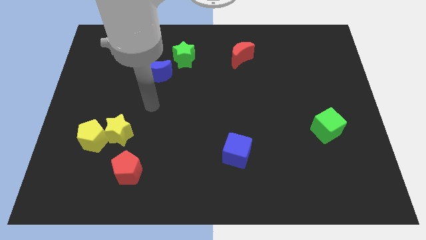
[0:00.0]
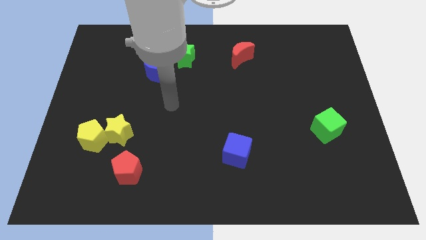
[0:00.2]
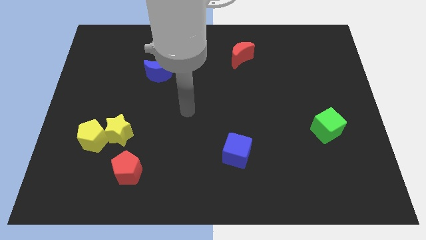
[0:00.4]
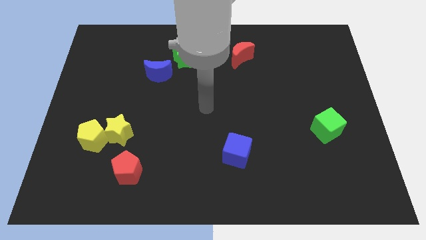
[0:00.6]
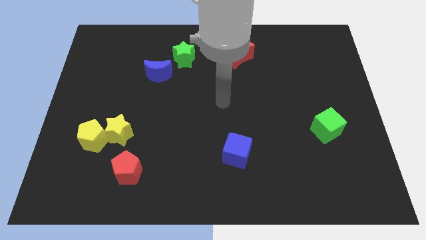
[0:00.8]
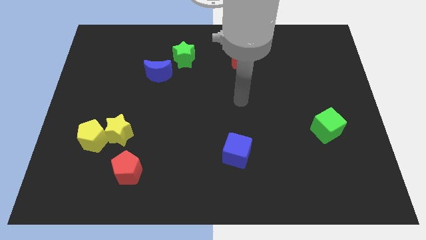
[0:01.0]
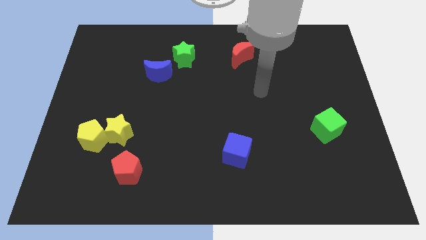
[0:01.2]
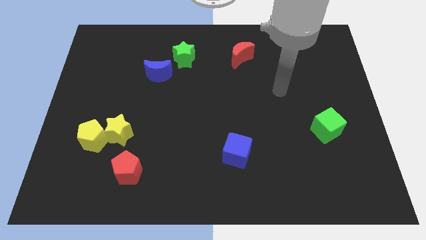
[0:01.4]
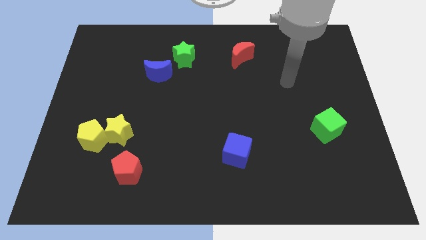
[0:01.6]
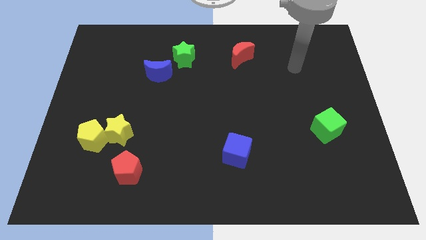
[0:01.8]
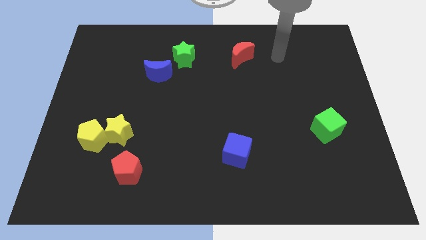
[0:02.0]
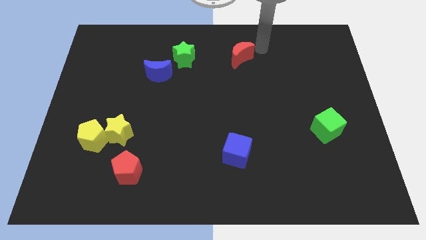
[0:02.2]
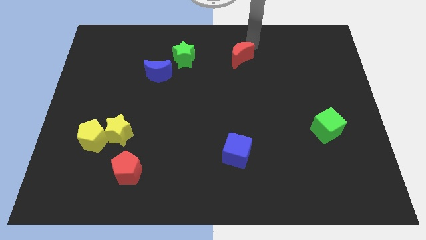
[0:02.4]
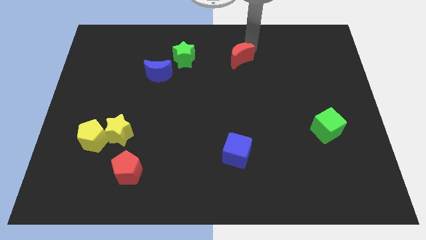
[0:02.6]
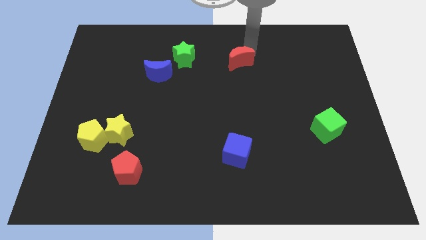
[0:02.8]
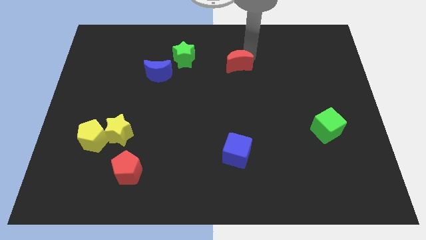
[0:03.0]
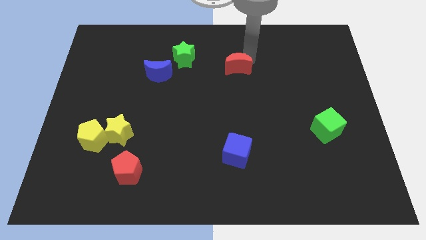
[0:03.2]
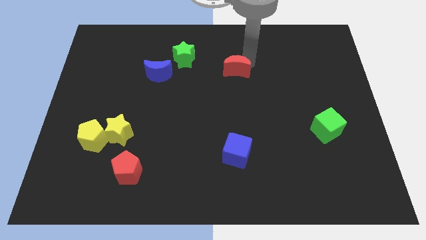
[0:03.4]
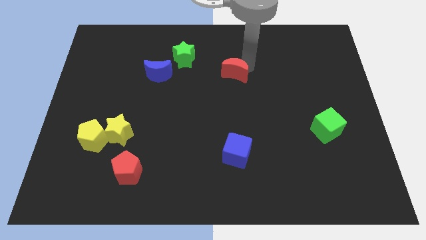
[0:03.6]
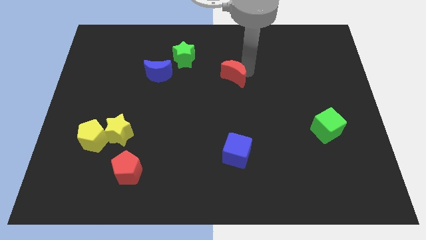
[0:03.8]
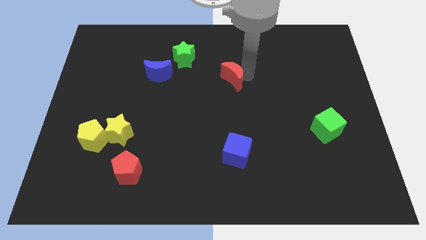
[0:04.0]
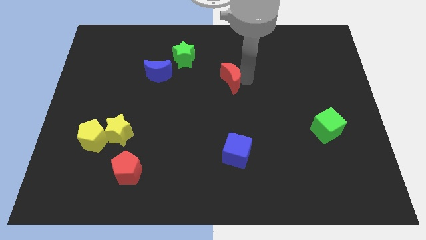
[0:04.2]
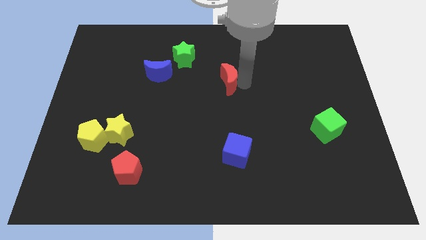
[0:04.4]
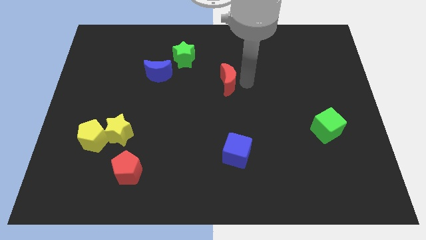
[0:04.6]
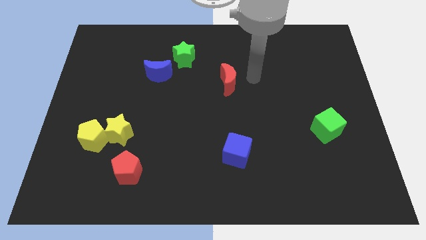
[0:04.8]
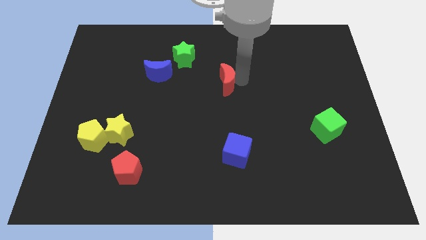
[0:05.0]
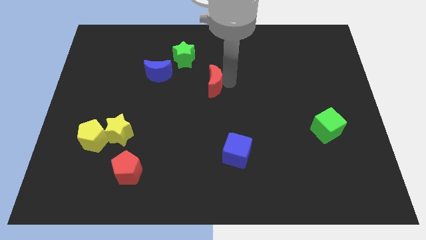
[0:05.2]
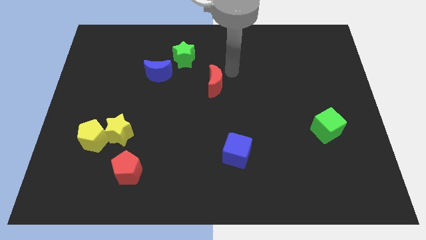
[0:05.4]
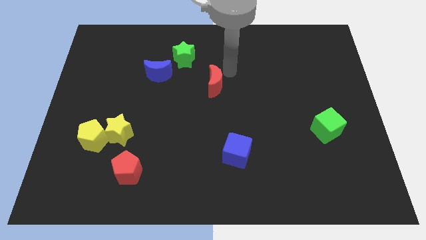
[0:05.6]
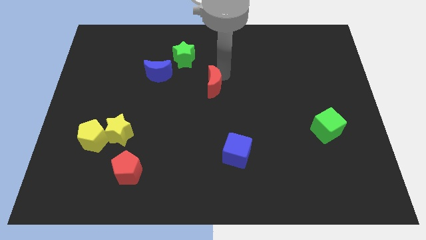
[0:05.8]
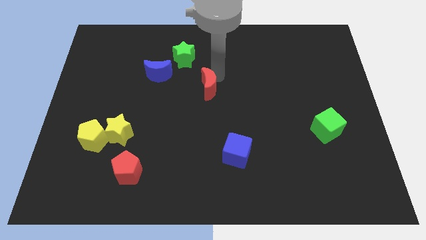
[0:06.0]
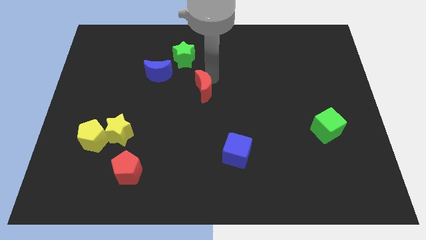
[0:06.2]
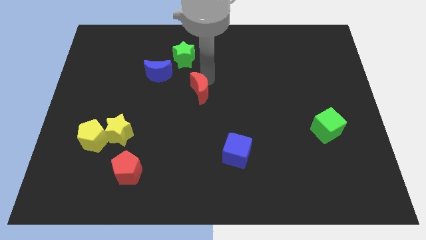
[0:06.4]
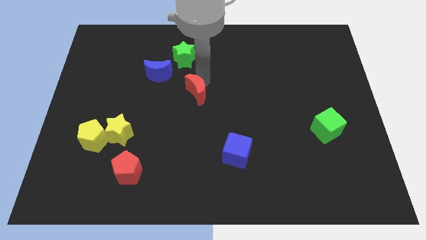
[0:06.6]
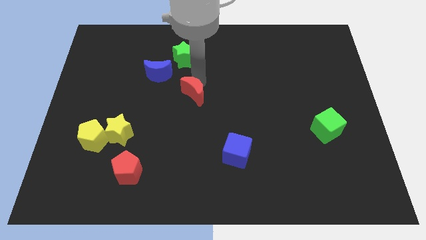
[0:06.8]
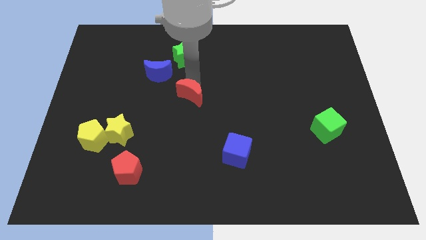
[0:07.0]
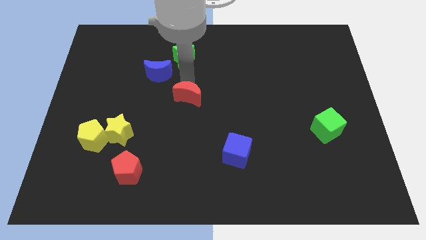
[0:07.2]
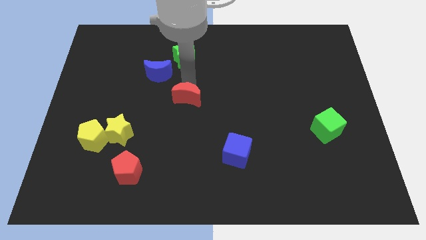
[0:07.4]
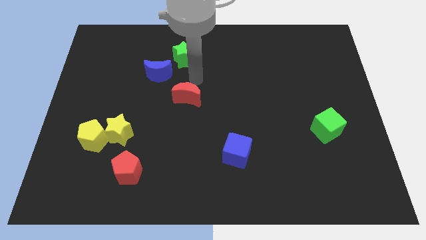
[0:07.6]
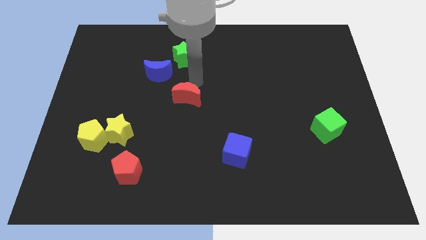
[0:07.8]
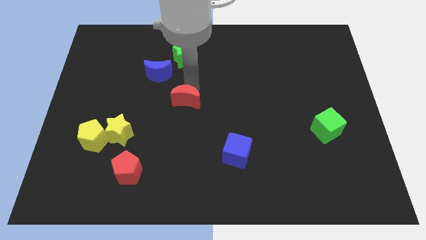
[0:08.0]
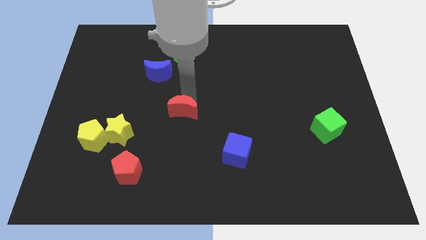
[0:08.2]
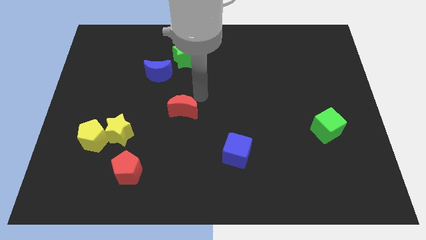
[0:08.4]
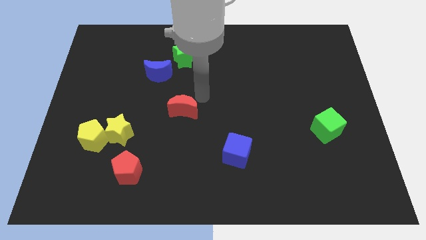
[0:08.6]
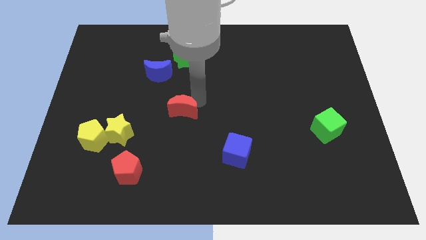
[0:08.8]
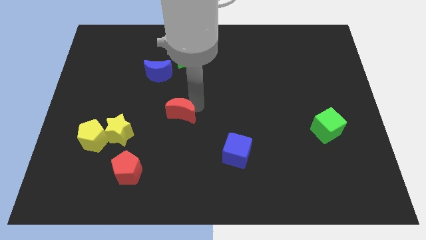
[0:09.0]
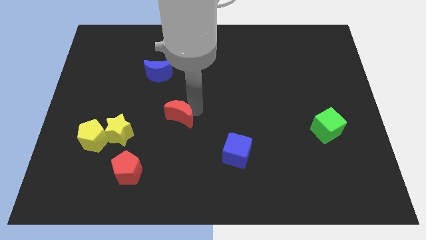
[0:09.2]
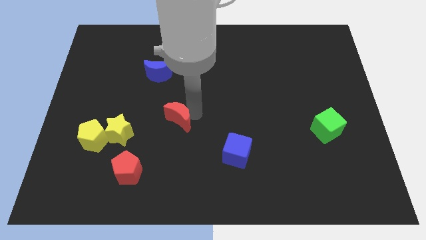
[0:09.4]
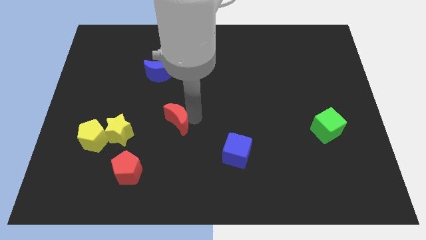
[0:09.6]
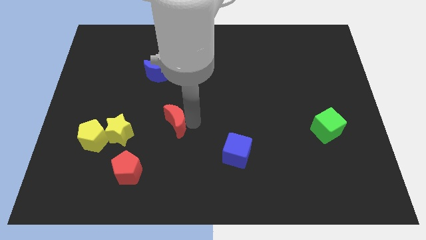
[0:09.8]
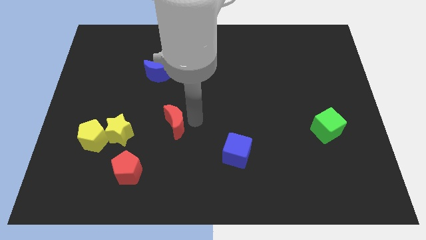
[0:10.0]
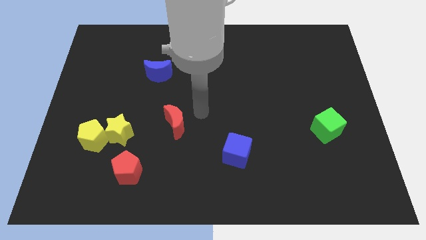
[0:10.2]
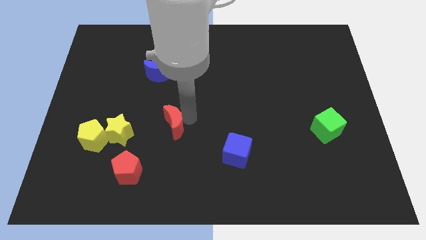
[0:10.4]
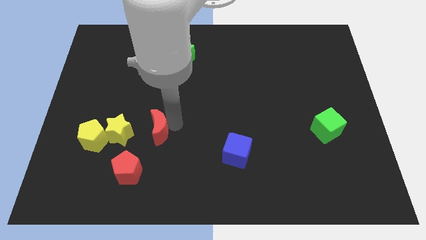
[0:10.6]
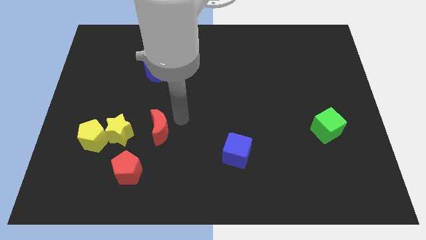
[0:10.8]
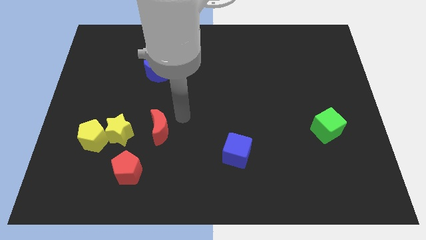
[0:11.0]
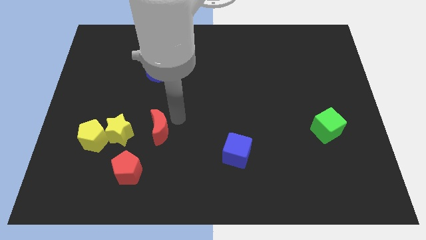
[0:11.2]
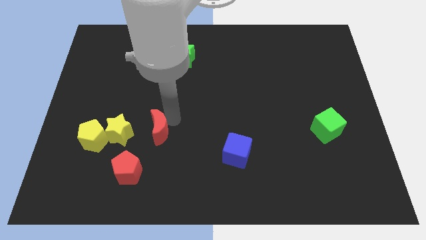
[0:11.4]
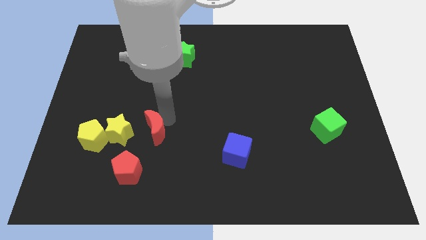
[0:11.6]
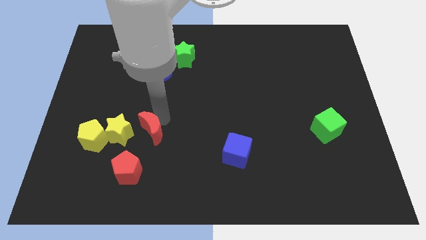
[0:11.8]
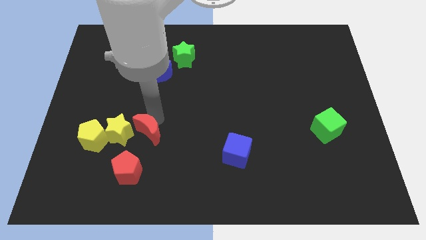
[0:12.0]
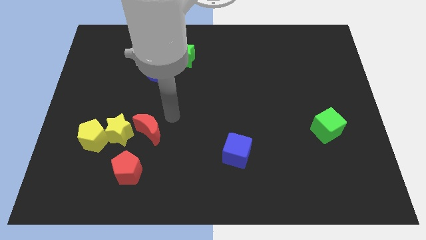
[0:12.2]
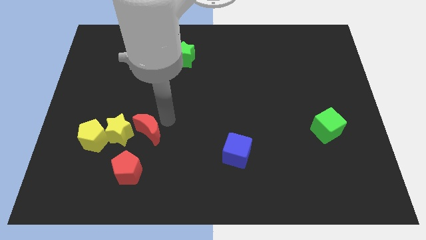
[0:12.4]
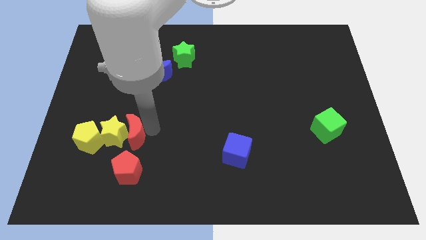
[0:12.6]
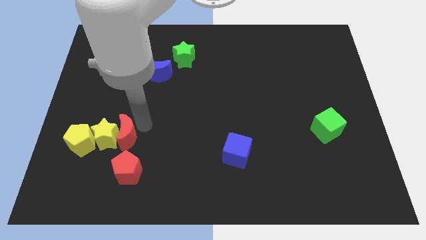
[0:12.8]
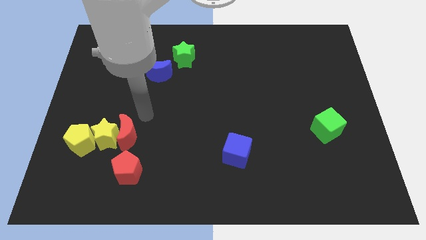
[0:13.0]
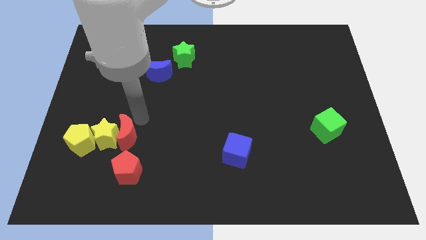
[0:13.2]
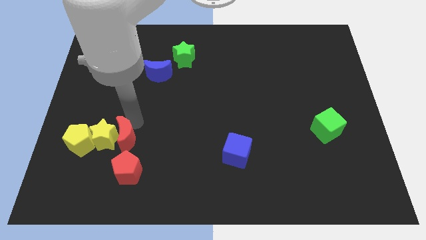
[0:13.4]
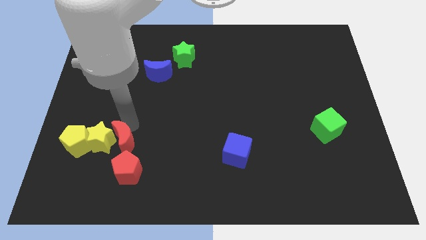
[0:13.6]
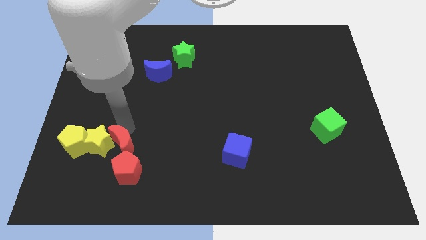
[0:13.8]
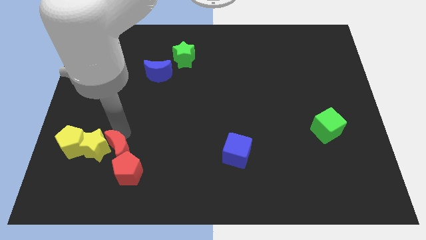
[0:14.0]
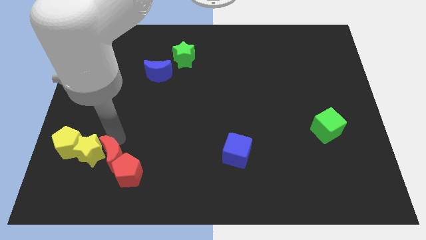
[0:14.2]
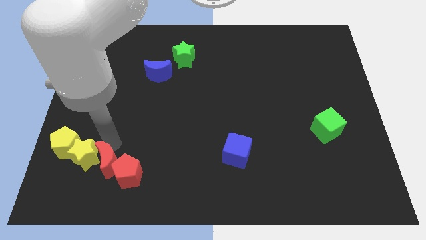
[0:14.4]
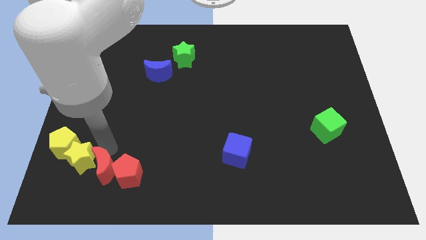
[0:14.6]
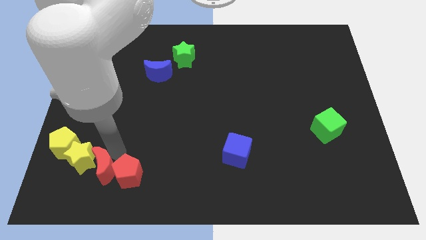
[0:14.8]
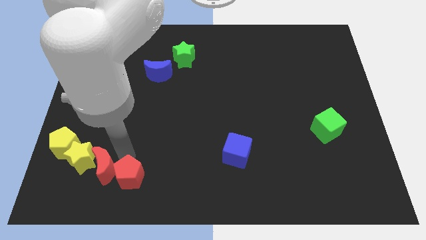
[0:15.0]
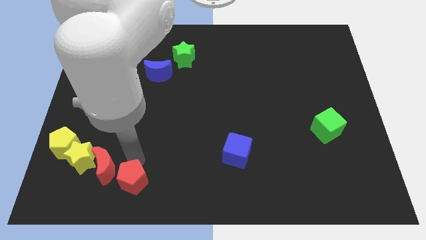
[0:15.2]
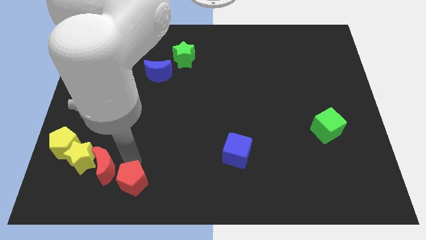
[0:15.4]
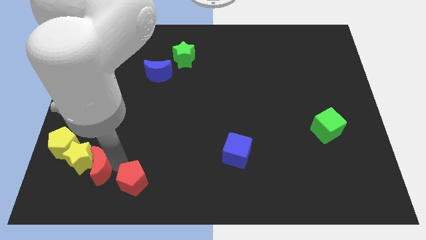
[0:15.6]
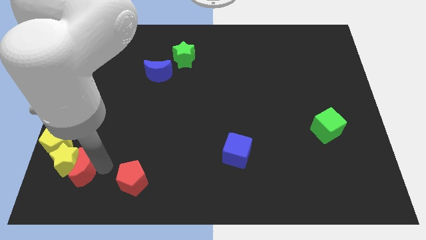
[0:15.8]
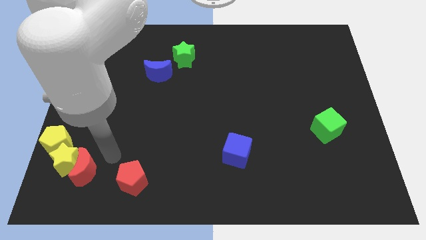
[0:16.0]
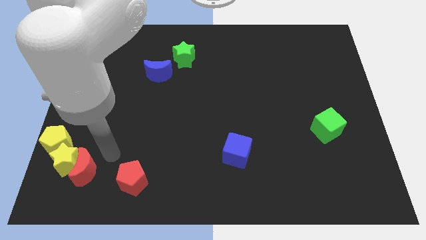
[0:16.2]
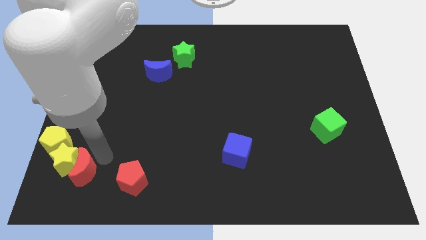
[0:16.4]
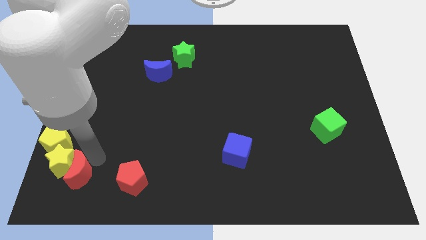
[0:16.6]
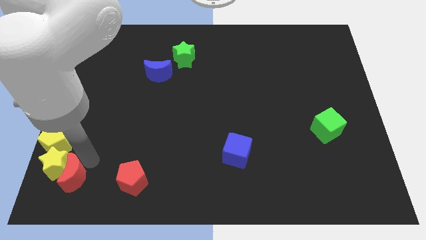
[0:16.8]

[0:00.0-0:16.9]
push the red moon to the bottom left
